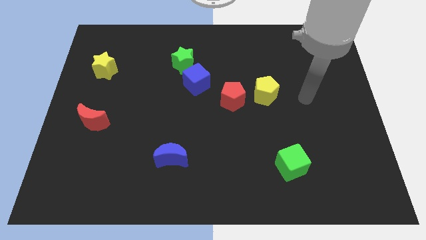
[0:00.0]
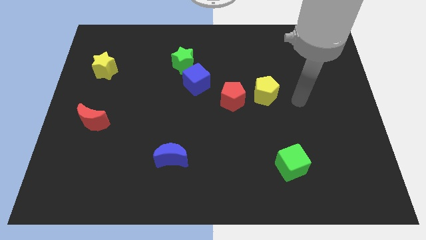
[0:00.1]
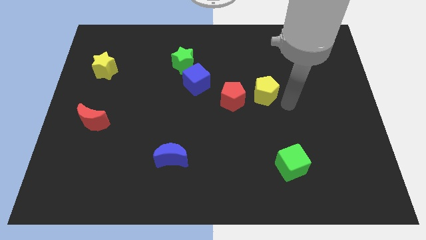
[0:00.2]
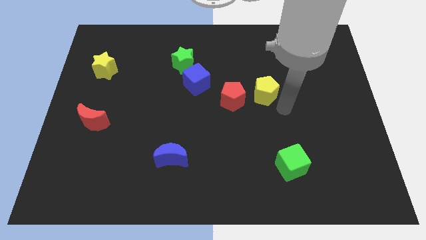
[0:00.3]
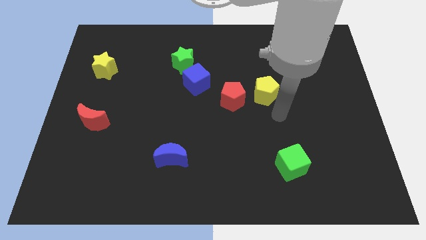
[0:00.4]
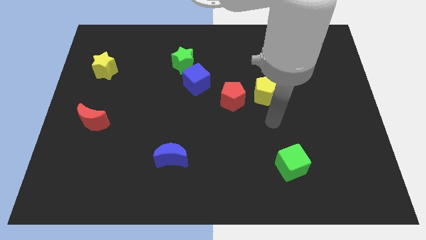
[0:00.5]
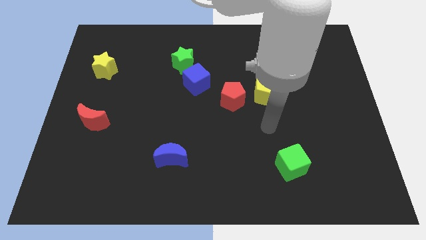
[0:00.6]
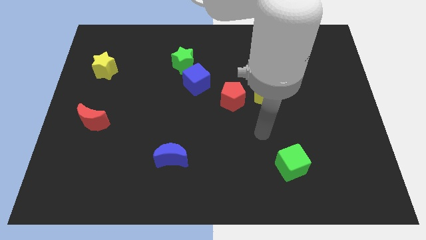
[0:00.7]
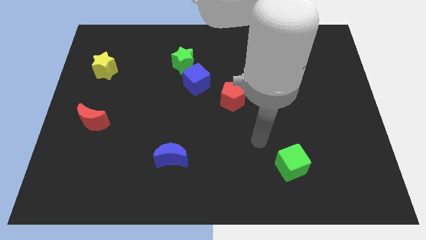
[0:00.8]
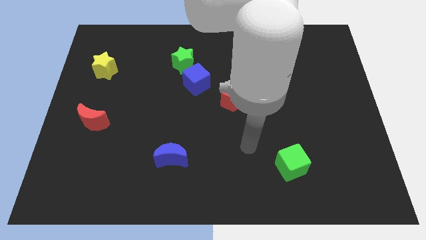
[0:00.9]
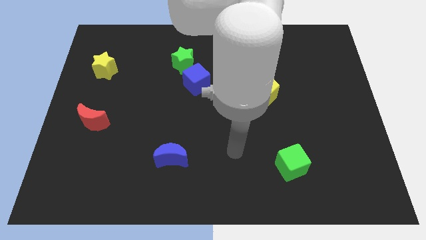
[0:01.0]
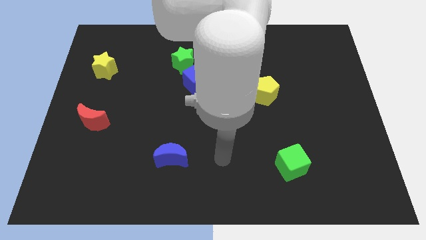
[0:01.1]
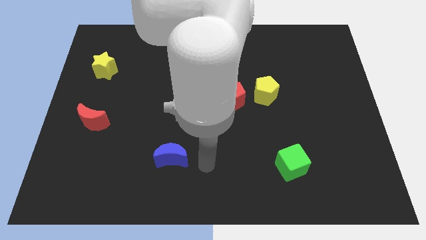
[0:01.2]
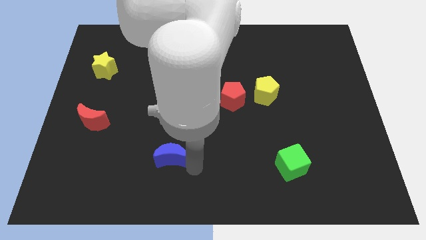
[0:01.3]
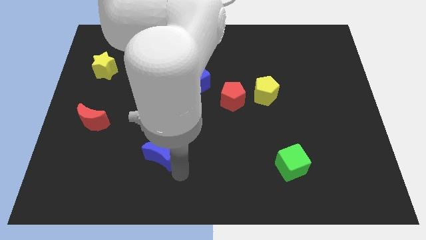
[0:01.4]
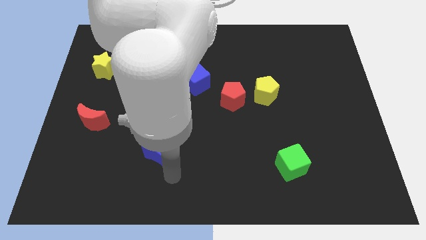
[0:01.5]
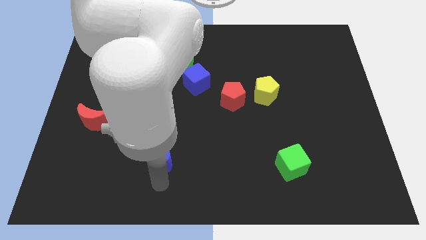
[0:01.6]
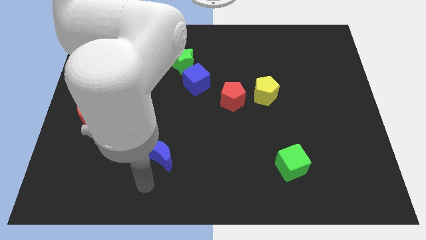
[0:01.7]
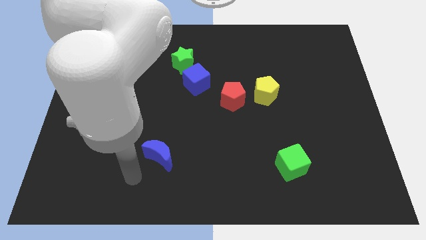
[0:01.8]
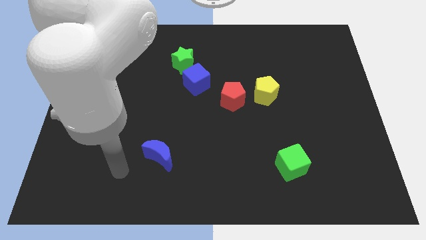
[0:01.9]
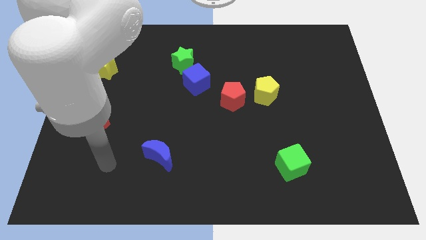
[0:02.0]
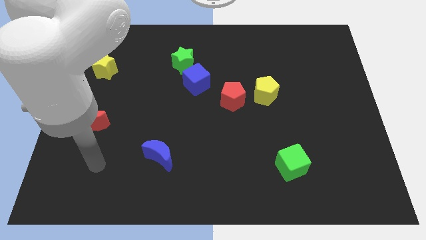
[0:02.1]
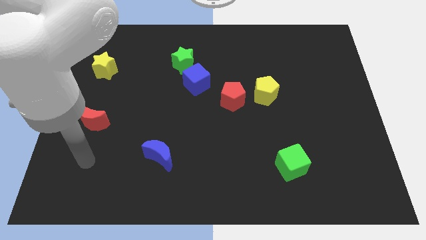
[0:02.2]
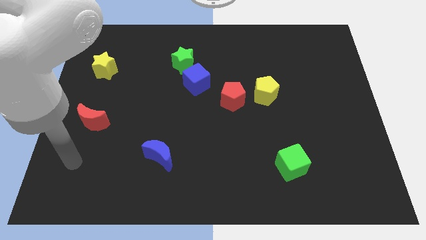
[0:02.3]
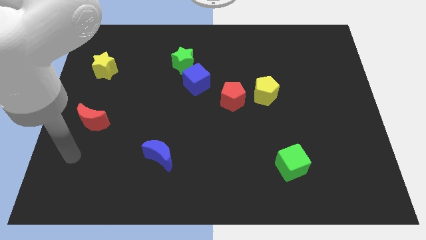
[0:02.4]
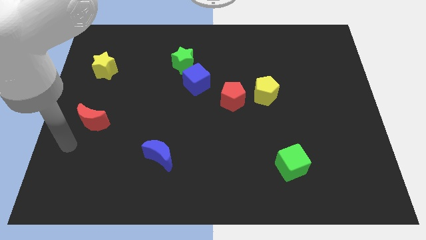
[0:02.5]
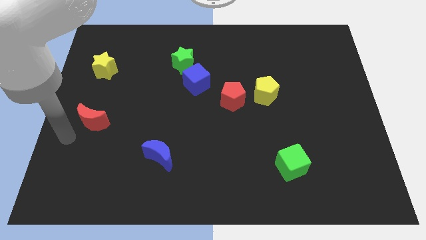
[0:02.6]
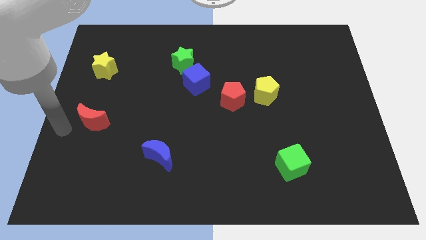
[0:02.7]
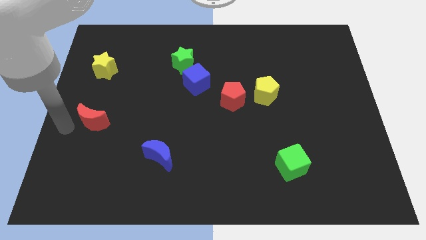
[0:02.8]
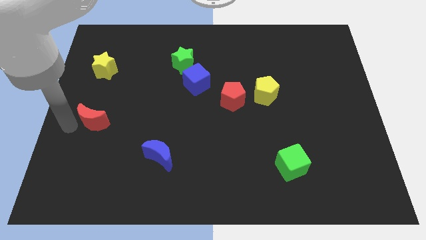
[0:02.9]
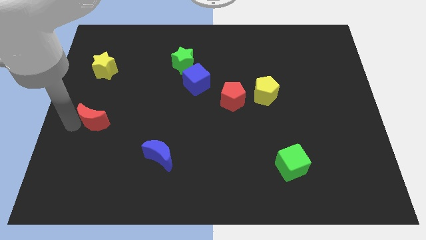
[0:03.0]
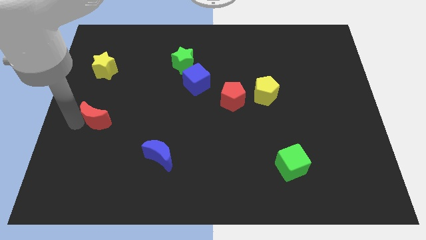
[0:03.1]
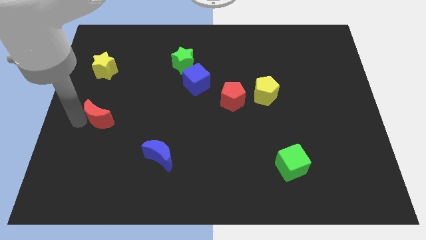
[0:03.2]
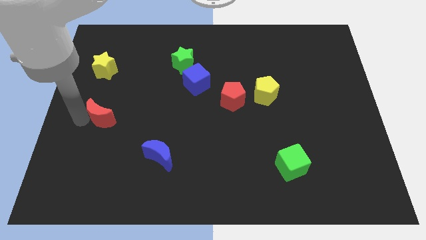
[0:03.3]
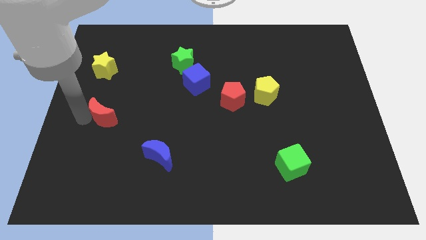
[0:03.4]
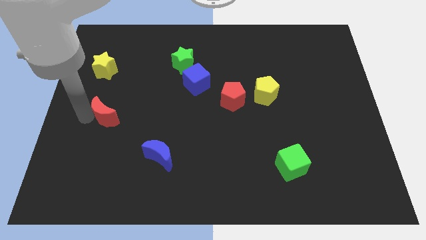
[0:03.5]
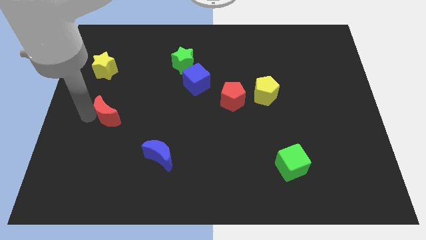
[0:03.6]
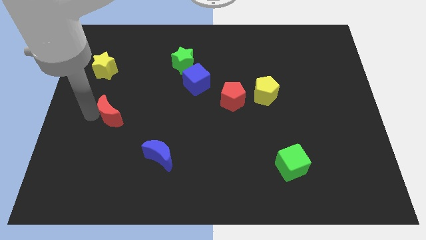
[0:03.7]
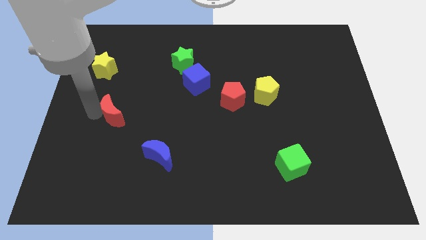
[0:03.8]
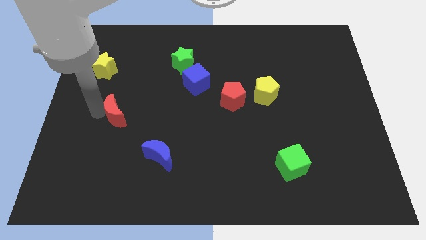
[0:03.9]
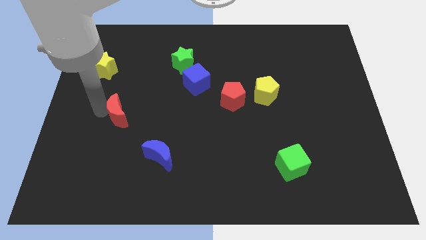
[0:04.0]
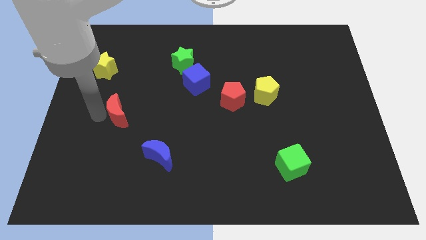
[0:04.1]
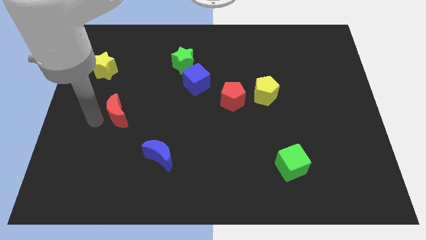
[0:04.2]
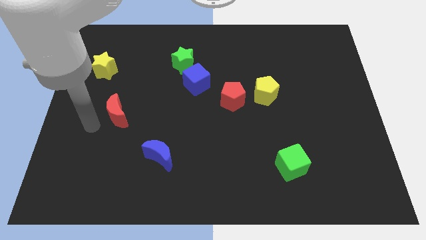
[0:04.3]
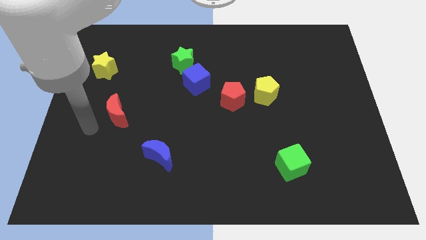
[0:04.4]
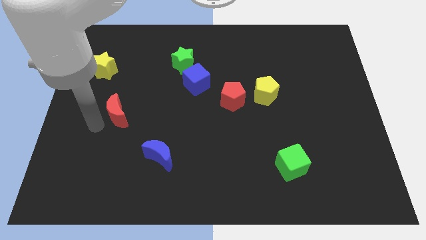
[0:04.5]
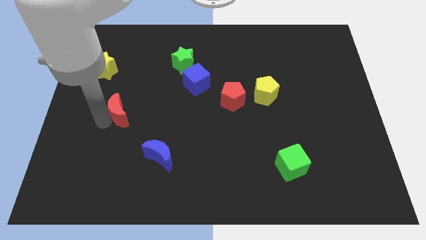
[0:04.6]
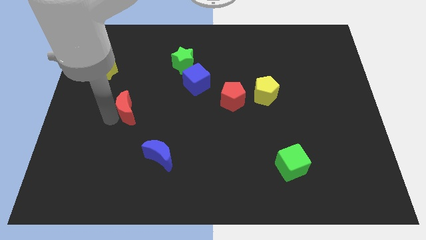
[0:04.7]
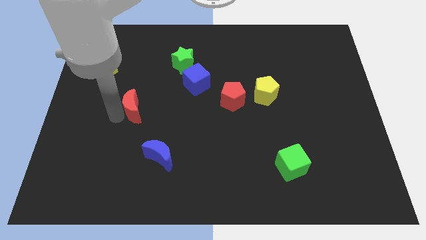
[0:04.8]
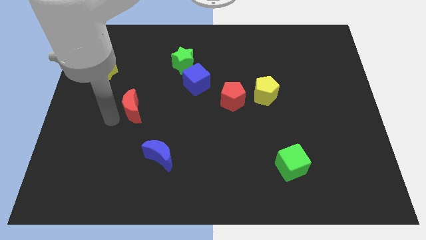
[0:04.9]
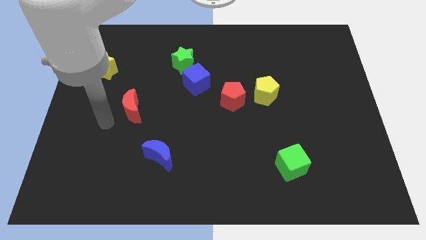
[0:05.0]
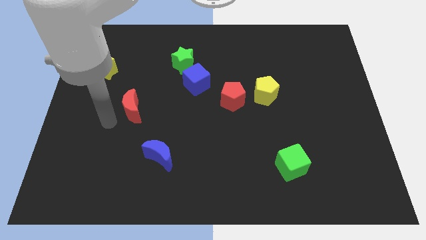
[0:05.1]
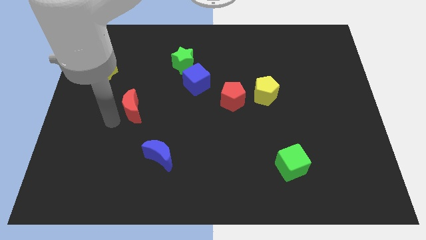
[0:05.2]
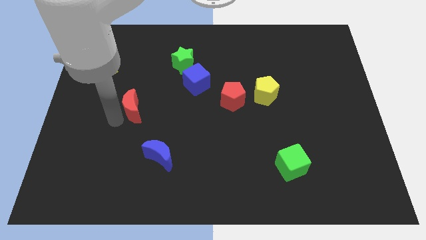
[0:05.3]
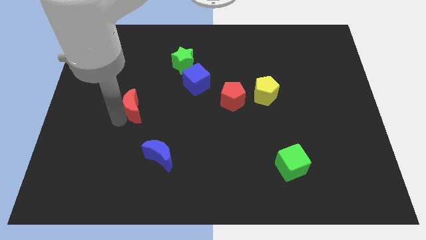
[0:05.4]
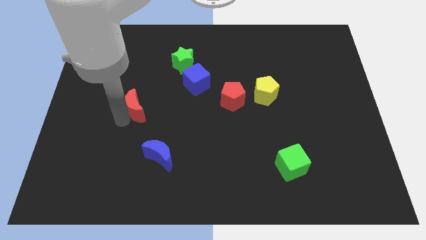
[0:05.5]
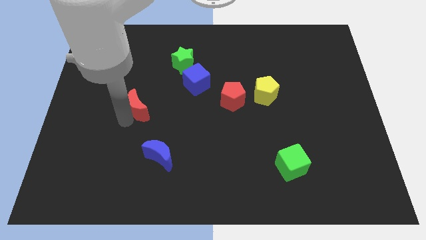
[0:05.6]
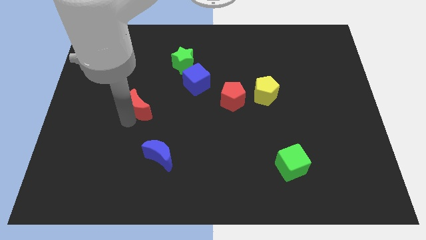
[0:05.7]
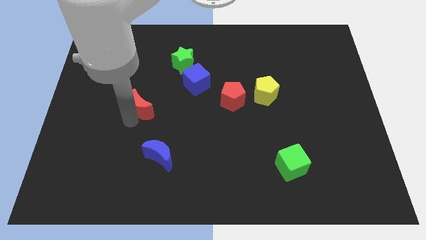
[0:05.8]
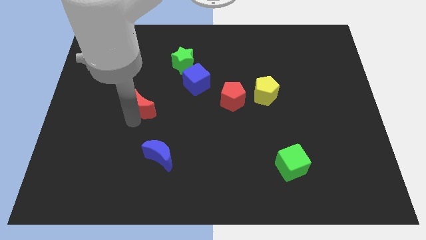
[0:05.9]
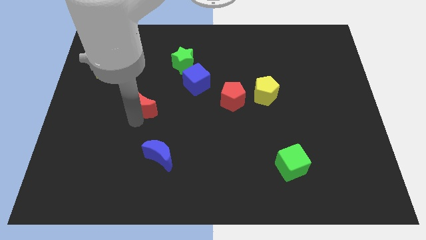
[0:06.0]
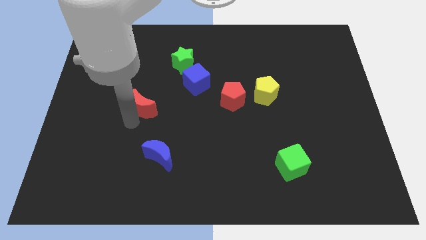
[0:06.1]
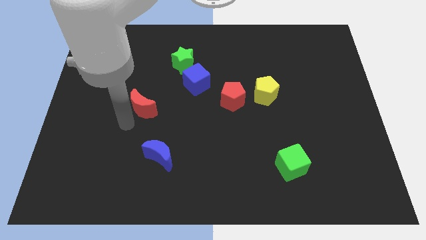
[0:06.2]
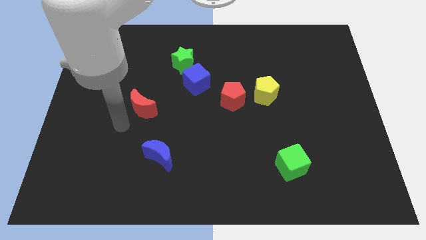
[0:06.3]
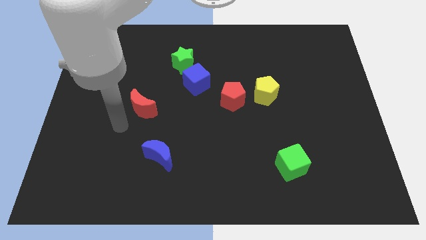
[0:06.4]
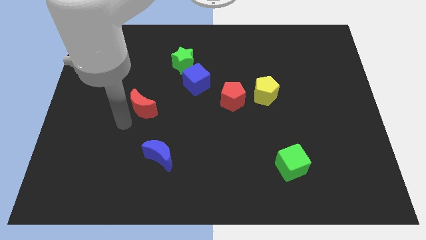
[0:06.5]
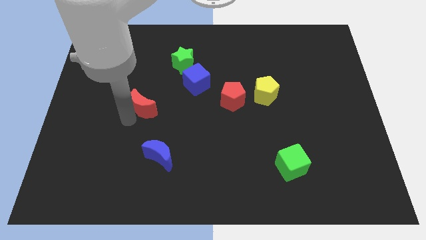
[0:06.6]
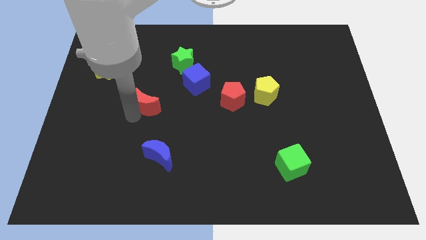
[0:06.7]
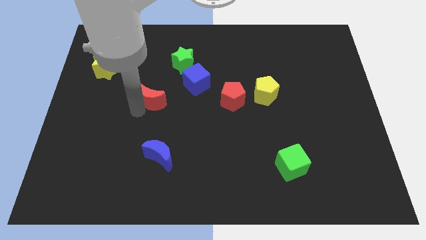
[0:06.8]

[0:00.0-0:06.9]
push the red moon to the bottom left side of the blue cube
